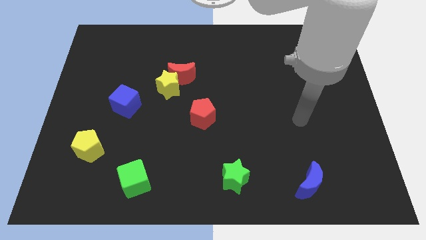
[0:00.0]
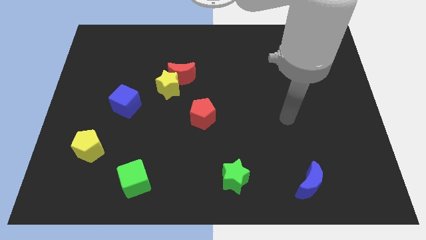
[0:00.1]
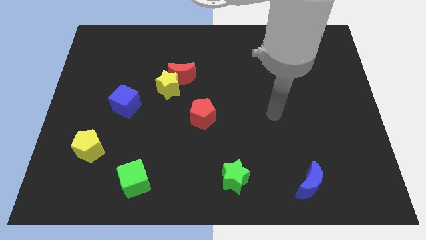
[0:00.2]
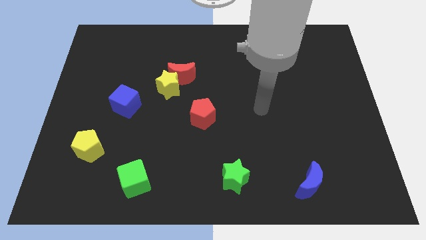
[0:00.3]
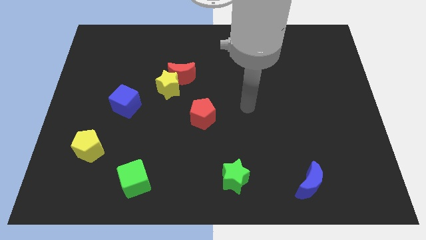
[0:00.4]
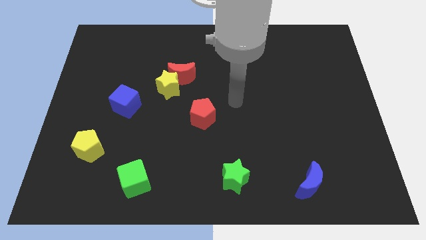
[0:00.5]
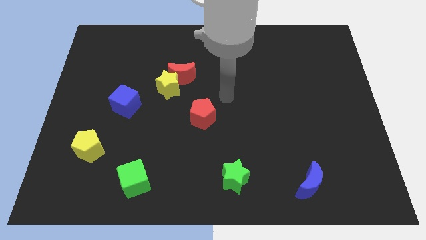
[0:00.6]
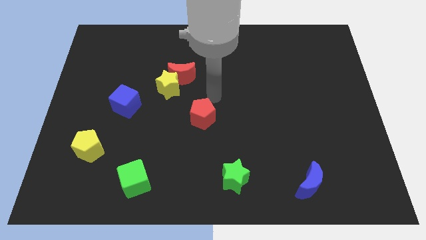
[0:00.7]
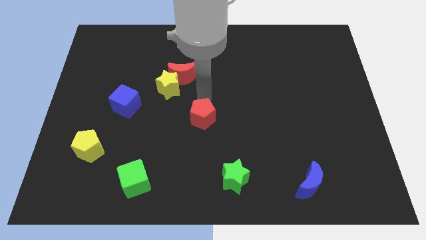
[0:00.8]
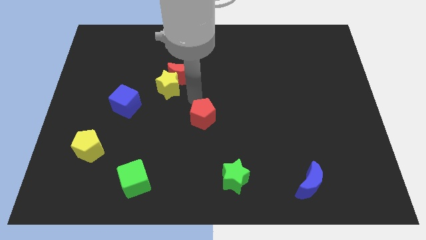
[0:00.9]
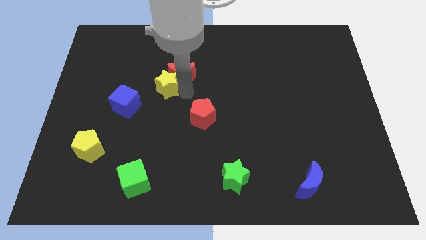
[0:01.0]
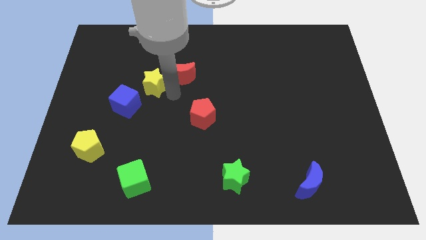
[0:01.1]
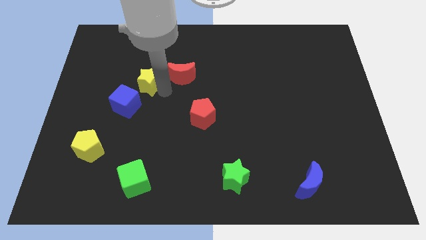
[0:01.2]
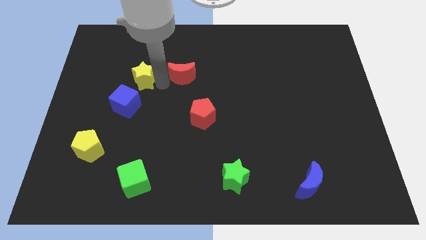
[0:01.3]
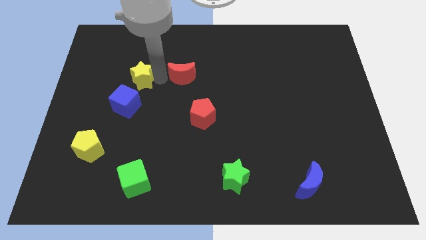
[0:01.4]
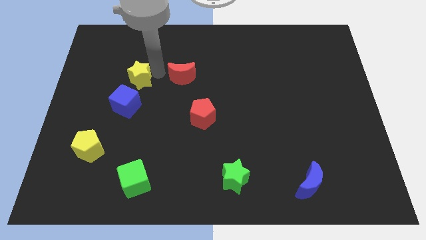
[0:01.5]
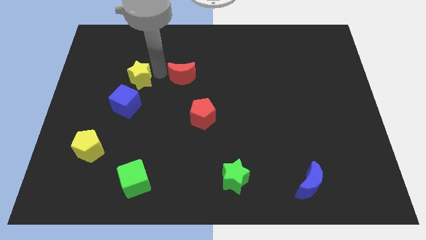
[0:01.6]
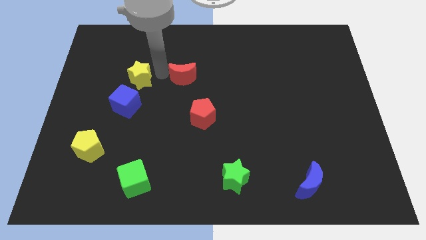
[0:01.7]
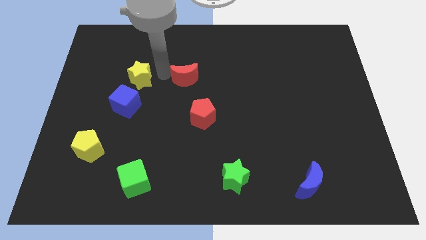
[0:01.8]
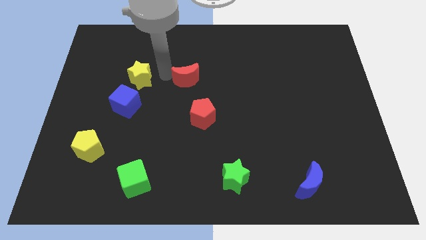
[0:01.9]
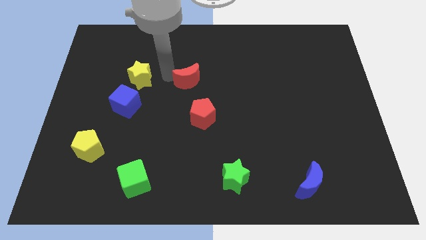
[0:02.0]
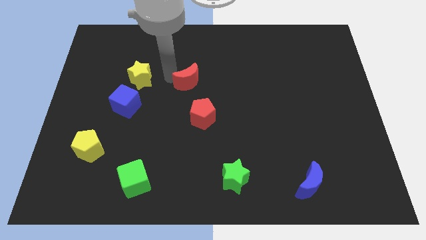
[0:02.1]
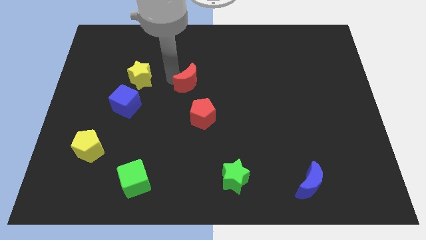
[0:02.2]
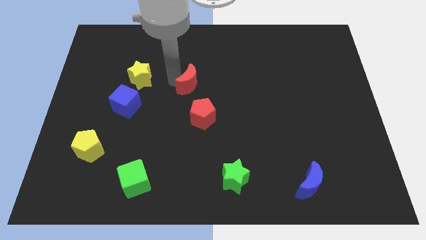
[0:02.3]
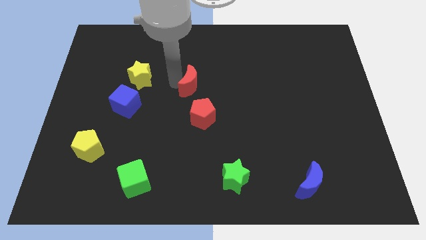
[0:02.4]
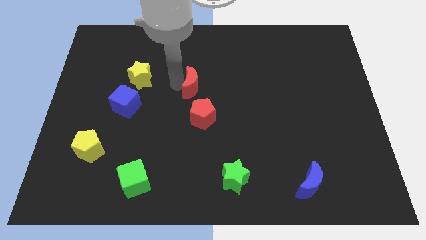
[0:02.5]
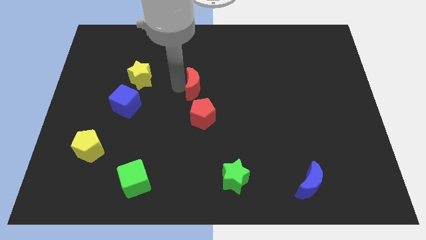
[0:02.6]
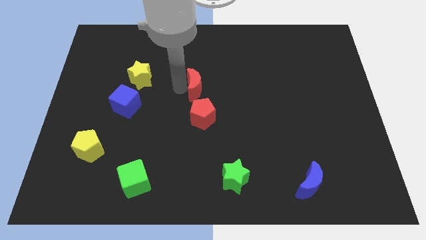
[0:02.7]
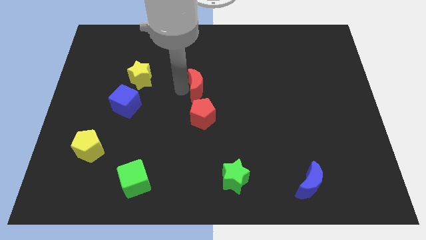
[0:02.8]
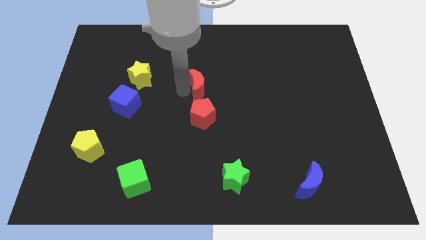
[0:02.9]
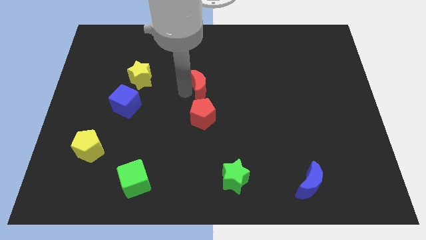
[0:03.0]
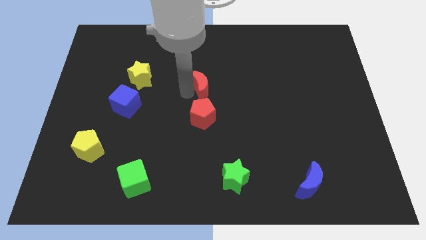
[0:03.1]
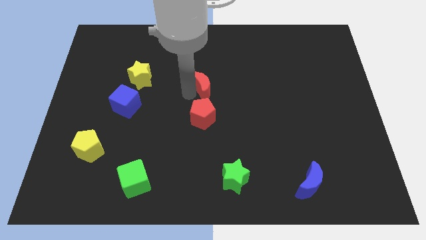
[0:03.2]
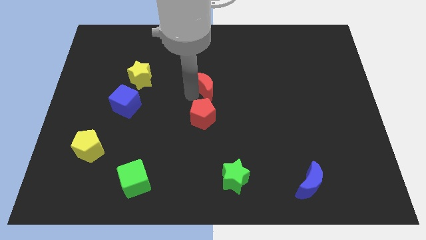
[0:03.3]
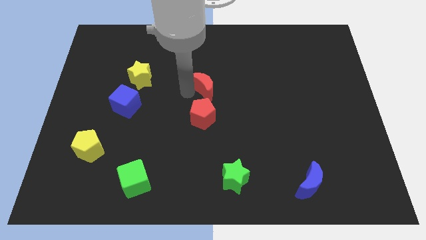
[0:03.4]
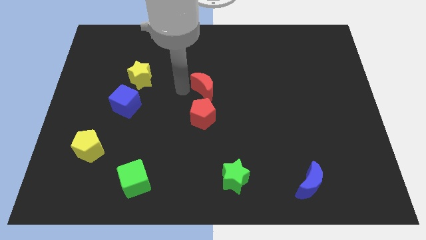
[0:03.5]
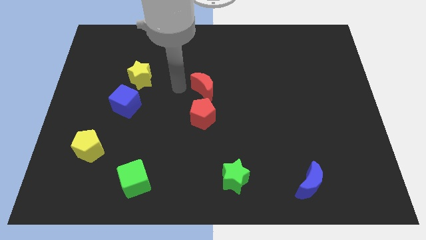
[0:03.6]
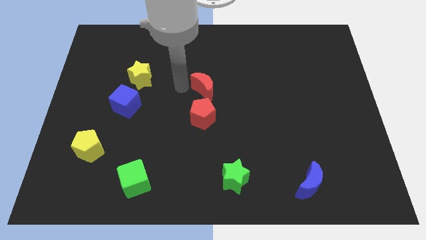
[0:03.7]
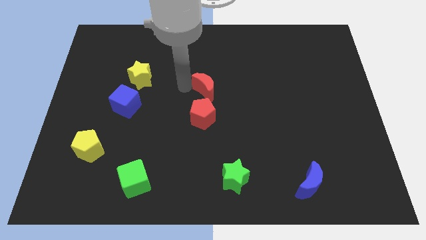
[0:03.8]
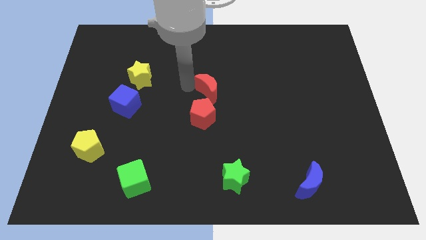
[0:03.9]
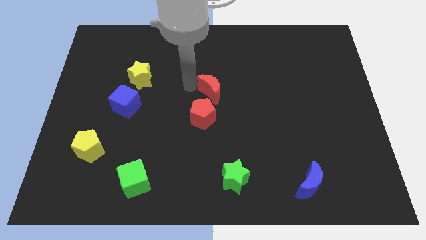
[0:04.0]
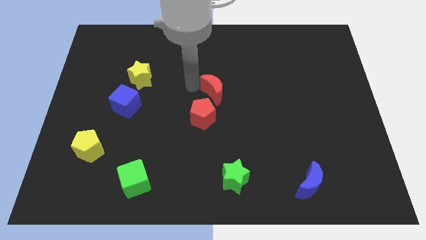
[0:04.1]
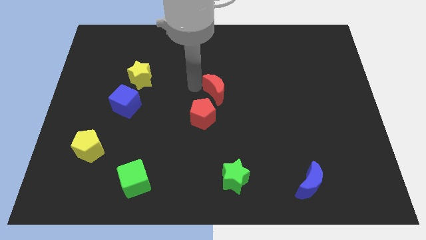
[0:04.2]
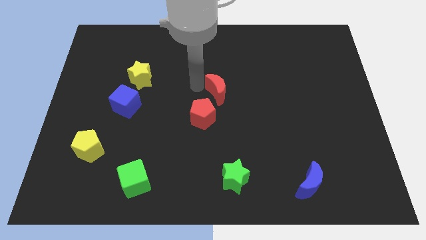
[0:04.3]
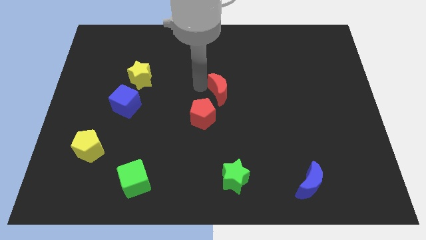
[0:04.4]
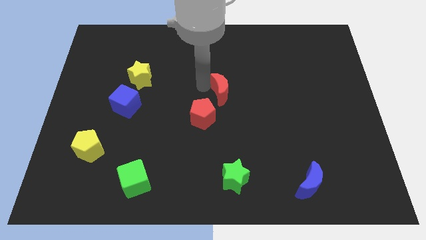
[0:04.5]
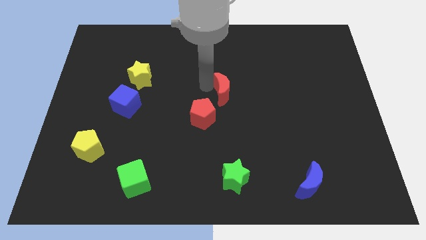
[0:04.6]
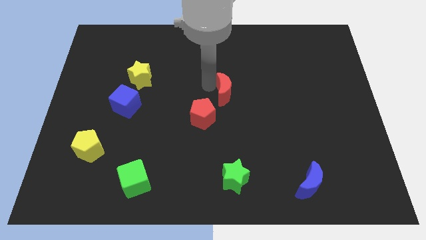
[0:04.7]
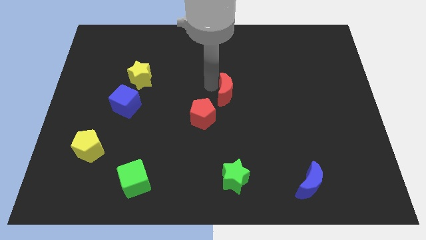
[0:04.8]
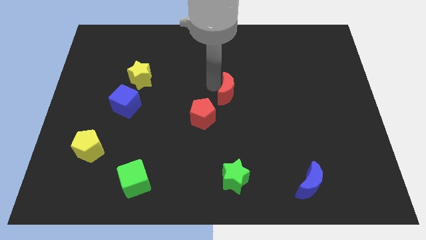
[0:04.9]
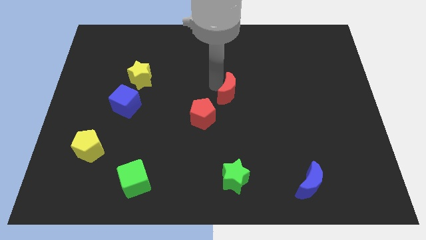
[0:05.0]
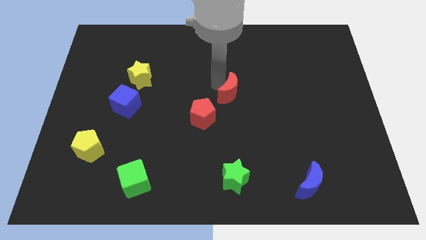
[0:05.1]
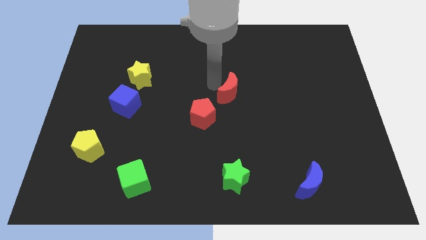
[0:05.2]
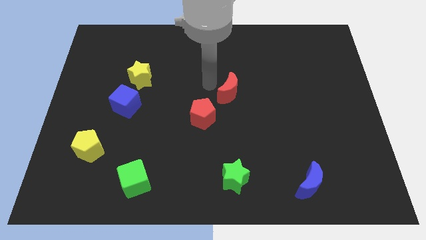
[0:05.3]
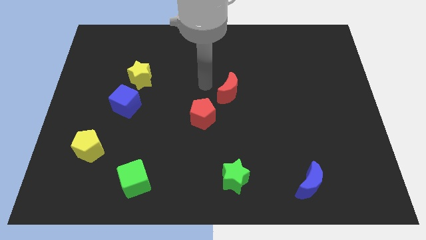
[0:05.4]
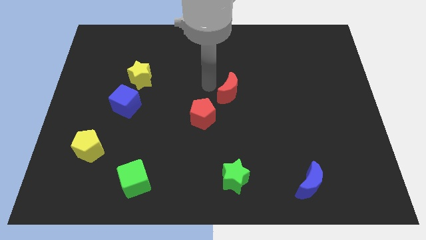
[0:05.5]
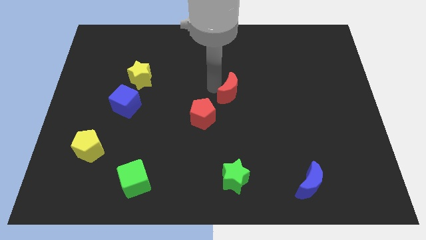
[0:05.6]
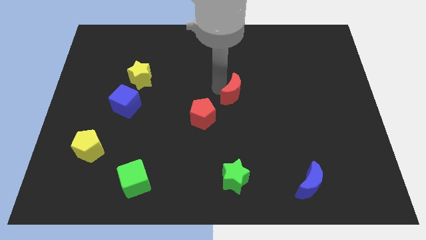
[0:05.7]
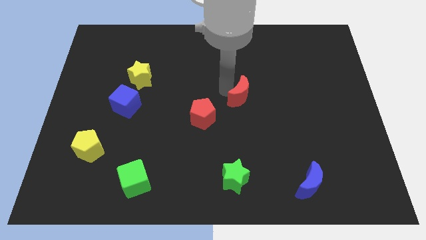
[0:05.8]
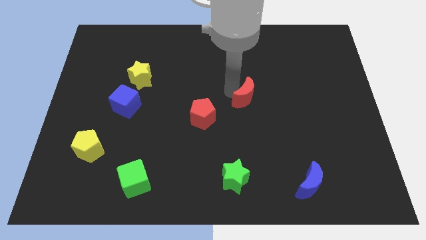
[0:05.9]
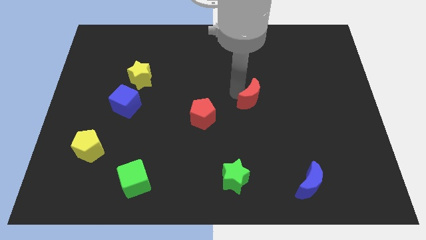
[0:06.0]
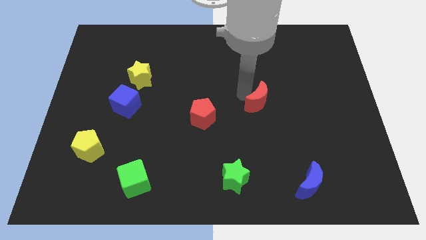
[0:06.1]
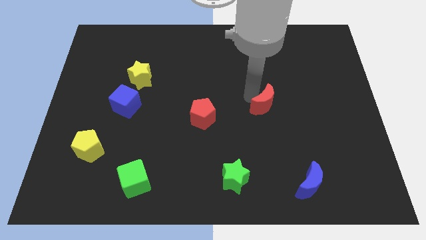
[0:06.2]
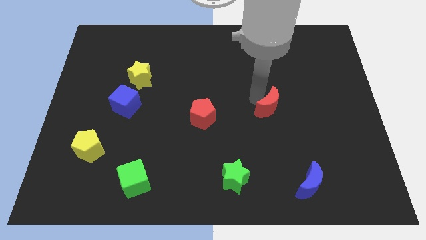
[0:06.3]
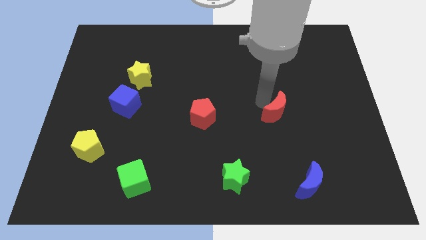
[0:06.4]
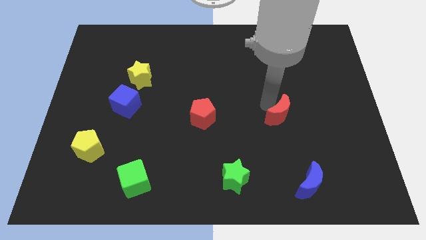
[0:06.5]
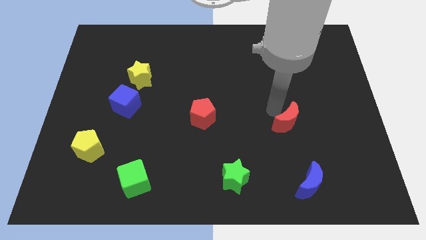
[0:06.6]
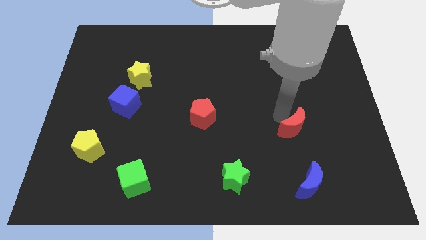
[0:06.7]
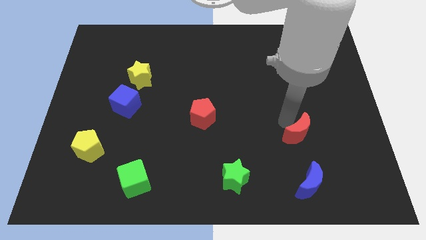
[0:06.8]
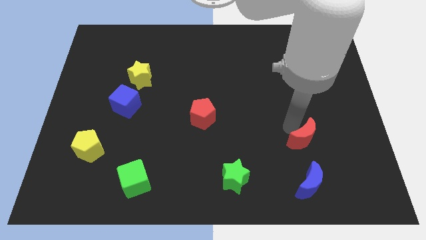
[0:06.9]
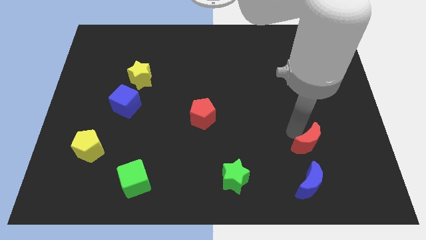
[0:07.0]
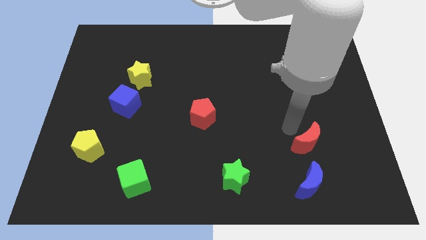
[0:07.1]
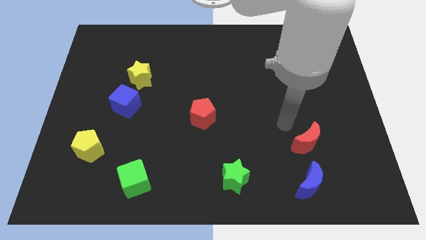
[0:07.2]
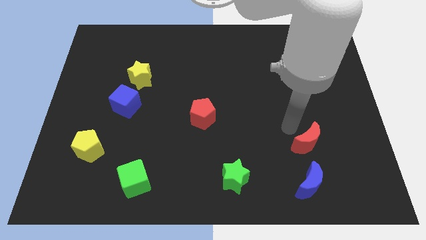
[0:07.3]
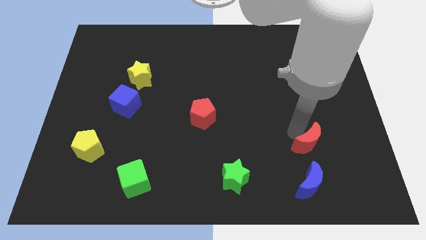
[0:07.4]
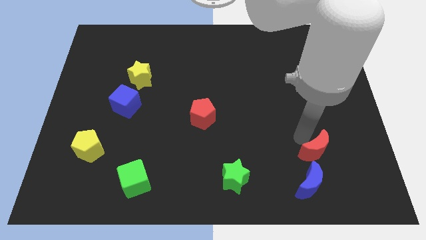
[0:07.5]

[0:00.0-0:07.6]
move the red moon to the top right side of the blue moon
